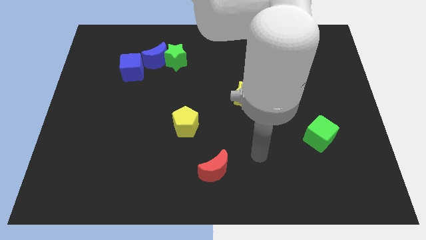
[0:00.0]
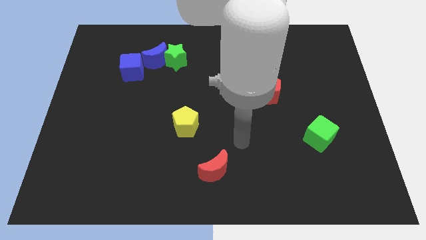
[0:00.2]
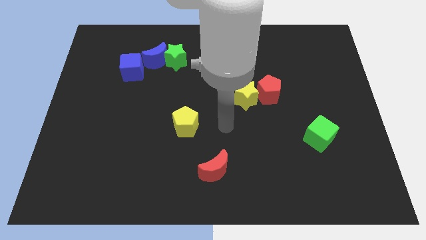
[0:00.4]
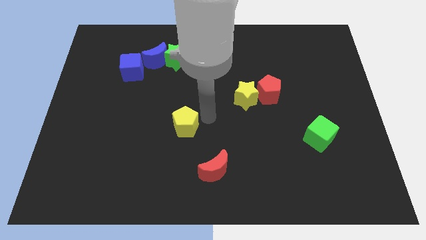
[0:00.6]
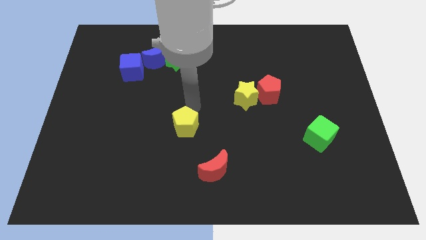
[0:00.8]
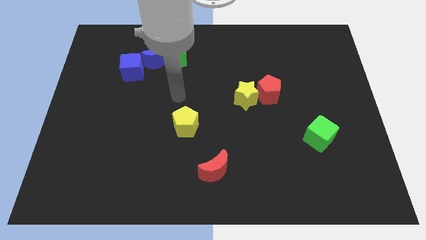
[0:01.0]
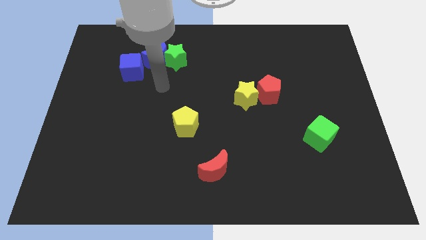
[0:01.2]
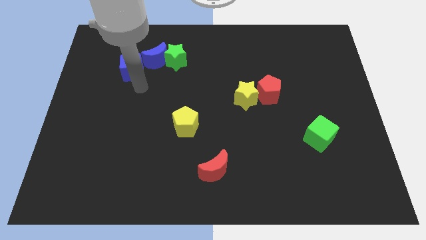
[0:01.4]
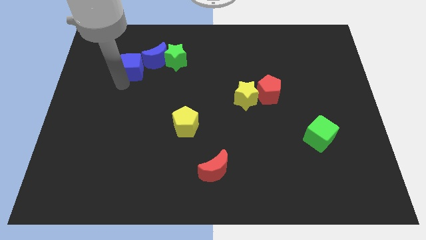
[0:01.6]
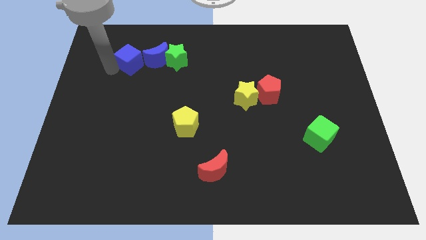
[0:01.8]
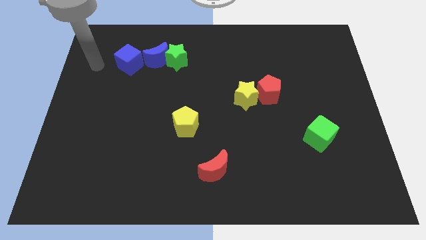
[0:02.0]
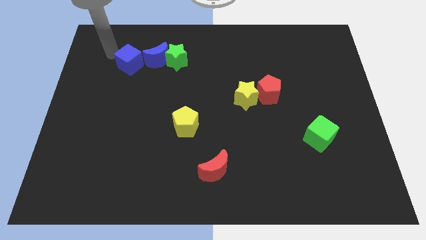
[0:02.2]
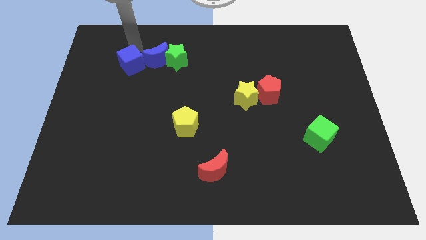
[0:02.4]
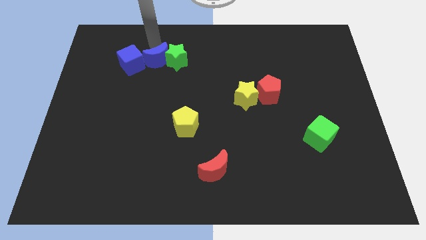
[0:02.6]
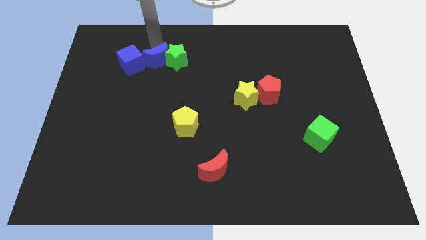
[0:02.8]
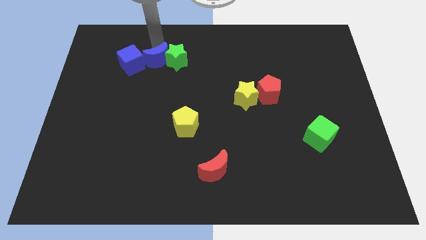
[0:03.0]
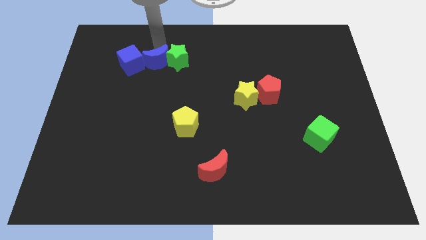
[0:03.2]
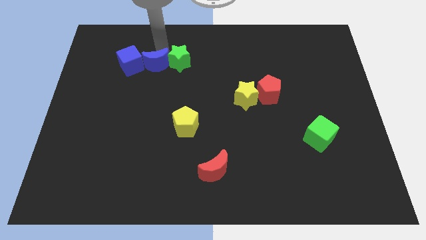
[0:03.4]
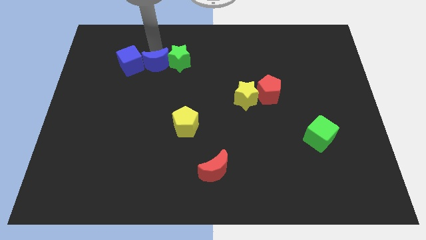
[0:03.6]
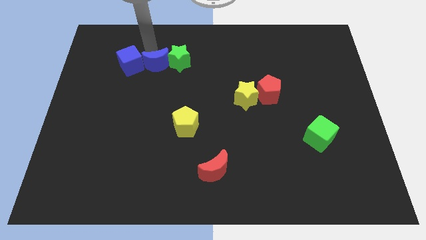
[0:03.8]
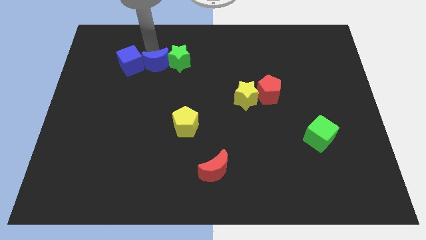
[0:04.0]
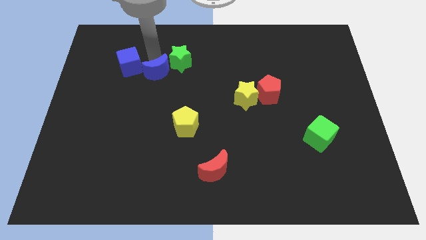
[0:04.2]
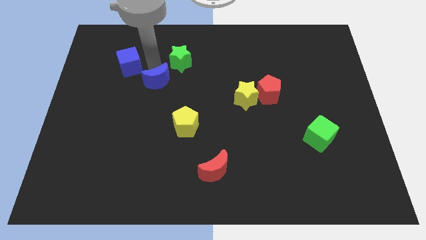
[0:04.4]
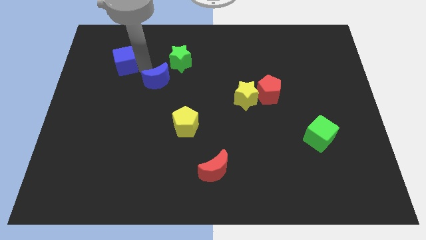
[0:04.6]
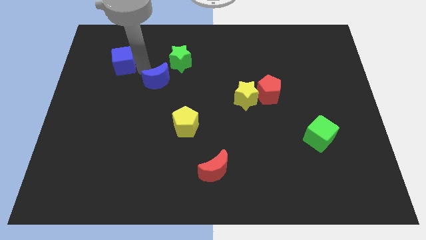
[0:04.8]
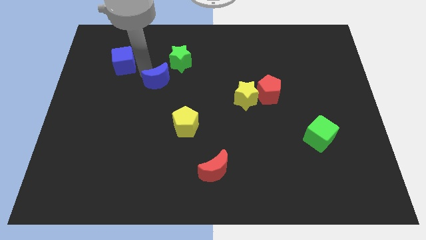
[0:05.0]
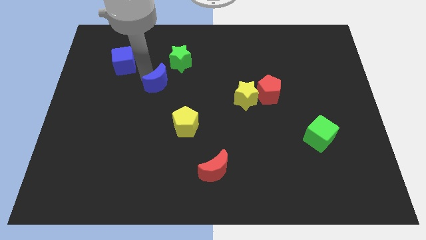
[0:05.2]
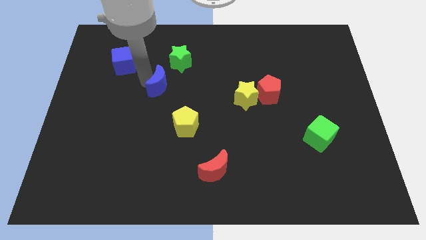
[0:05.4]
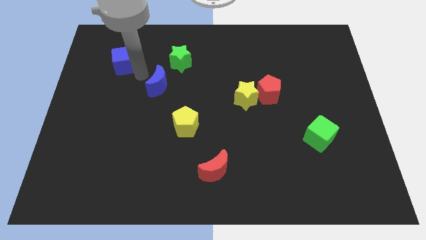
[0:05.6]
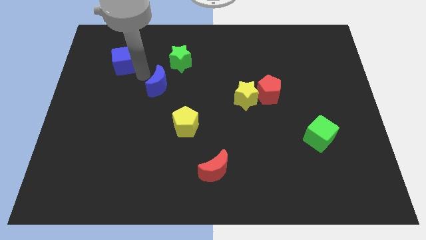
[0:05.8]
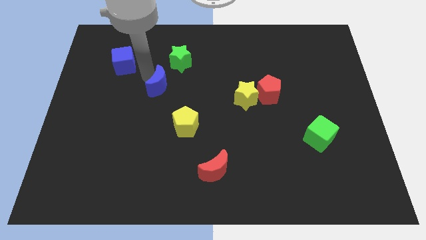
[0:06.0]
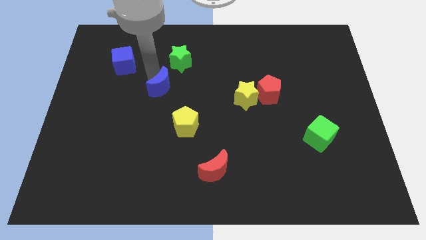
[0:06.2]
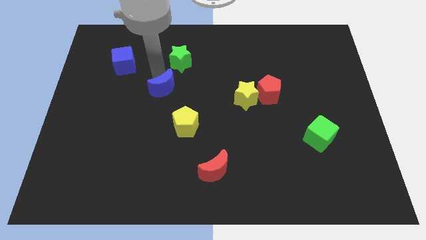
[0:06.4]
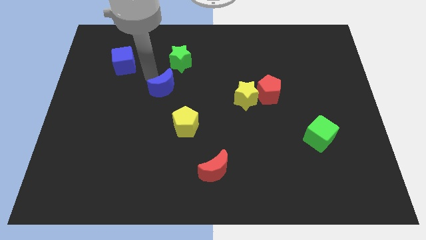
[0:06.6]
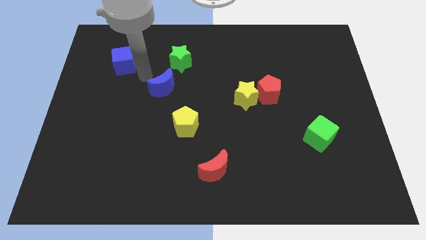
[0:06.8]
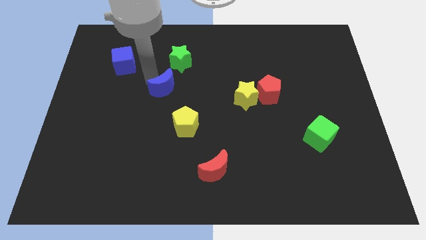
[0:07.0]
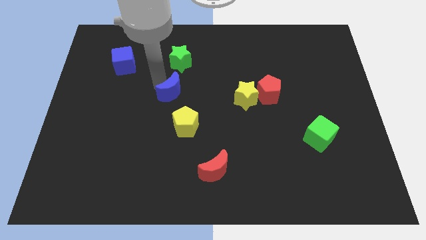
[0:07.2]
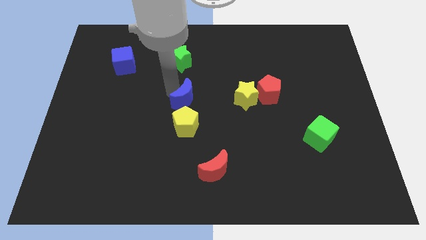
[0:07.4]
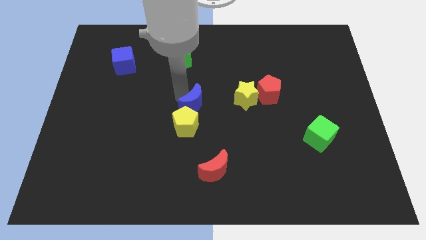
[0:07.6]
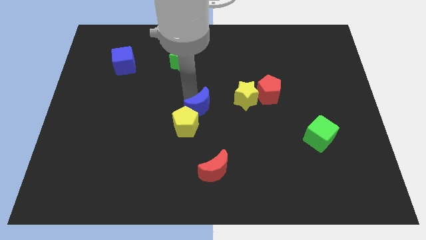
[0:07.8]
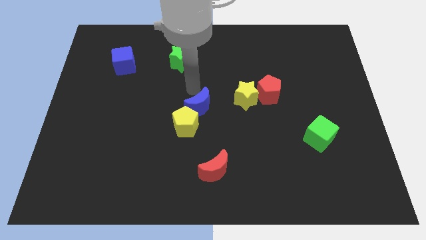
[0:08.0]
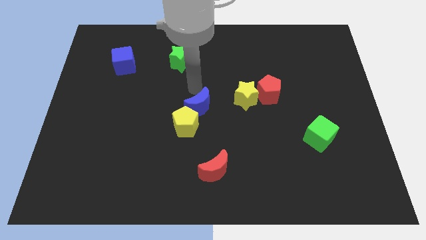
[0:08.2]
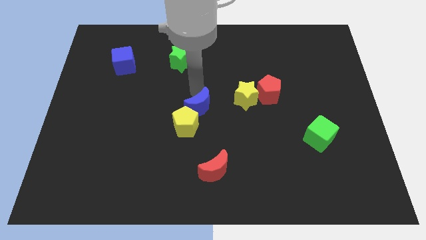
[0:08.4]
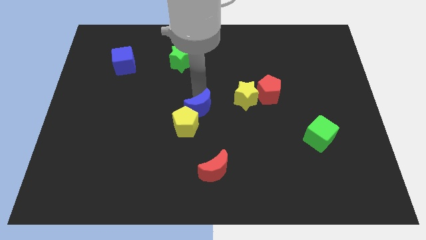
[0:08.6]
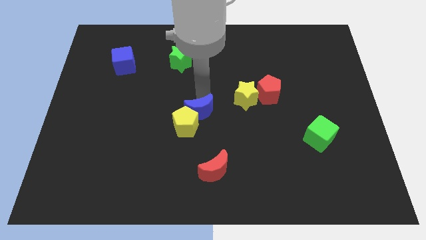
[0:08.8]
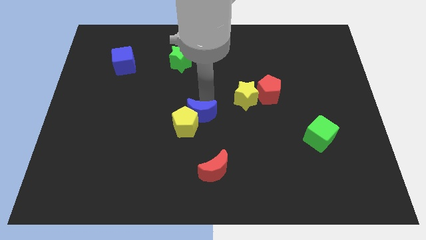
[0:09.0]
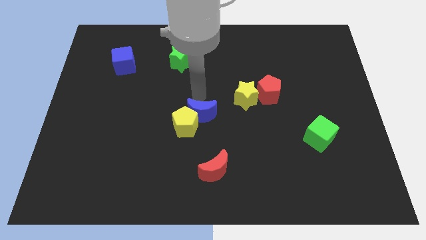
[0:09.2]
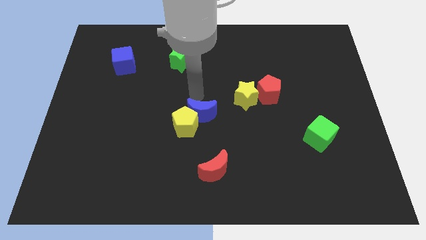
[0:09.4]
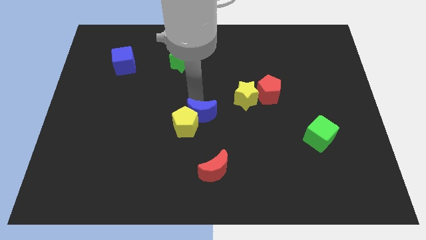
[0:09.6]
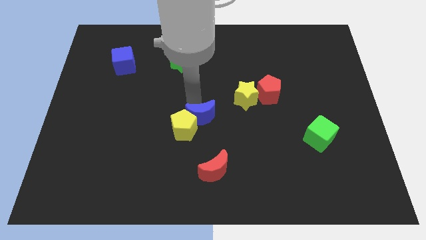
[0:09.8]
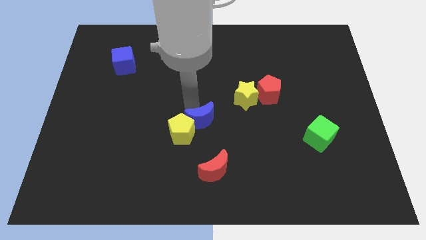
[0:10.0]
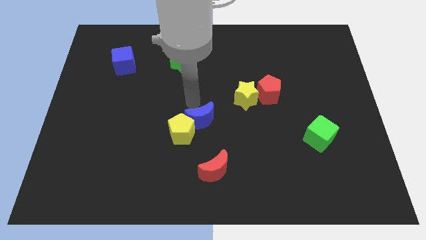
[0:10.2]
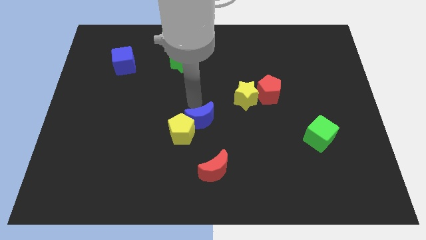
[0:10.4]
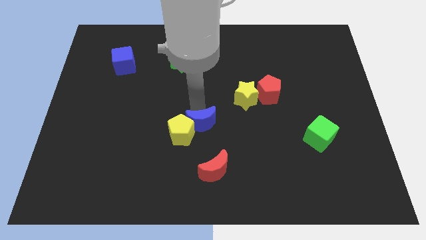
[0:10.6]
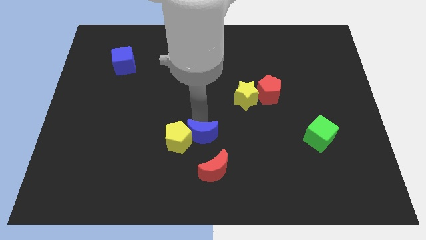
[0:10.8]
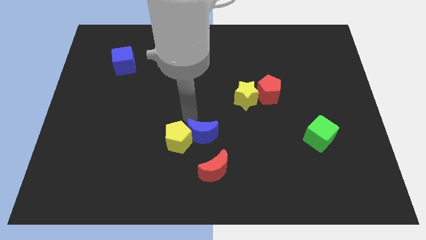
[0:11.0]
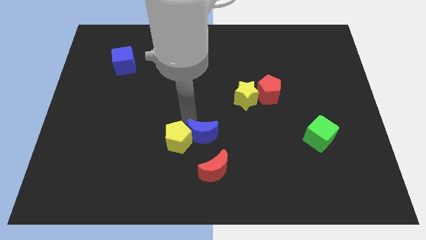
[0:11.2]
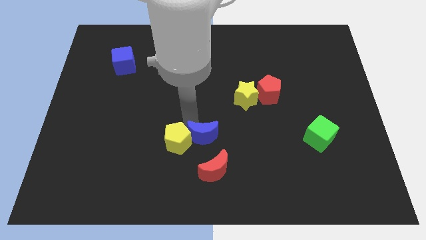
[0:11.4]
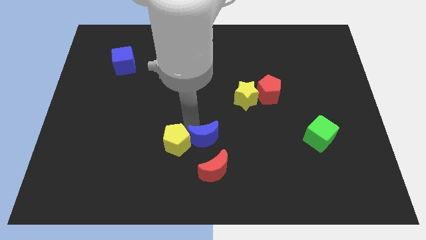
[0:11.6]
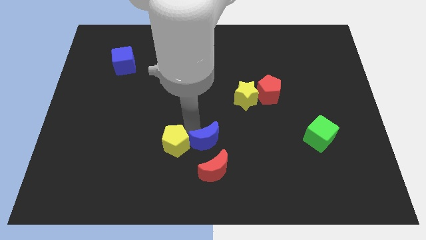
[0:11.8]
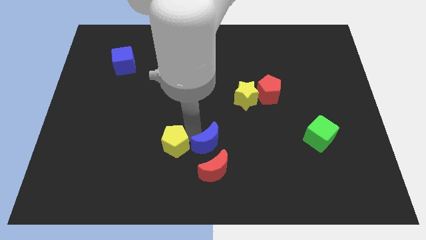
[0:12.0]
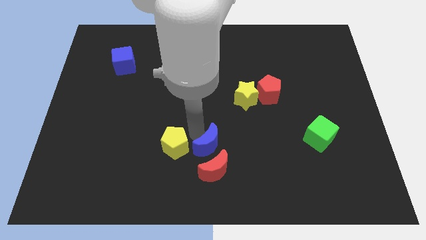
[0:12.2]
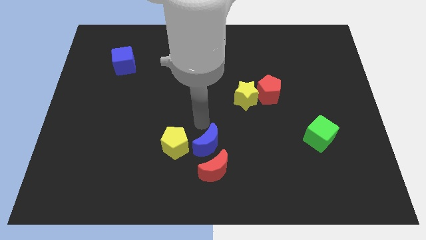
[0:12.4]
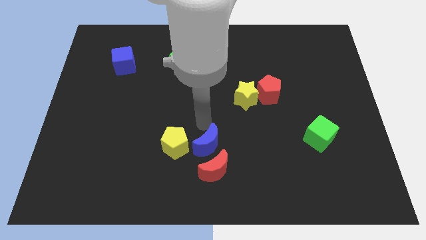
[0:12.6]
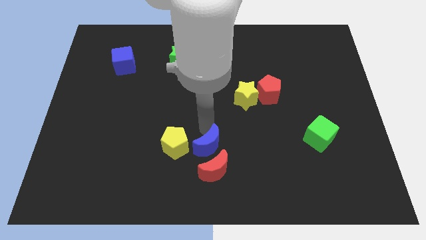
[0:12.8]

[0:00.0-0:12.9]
put the blue moon towards the red moon

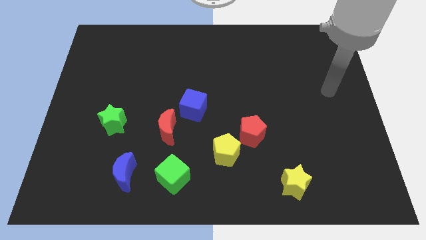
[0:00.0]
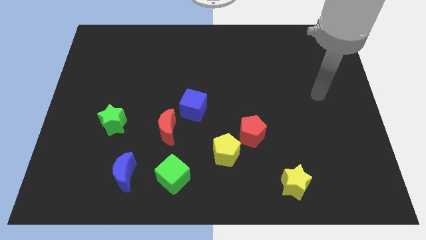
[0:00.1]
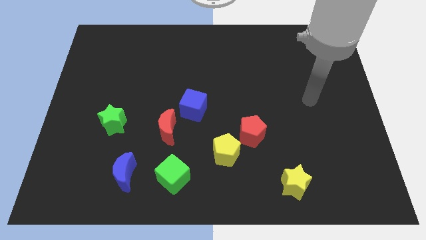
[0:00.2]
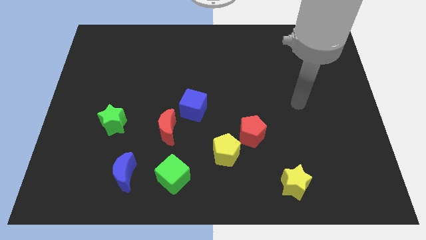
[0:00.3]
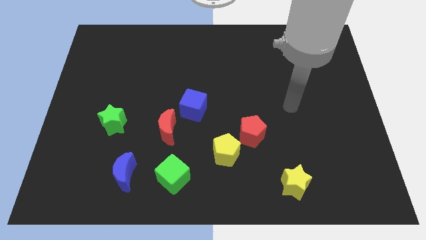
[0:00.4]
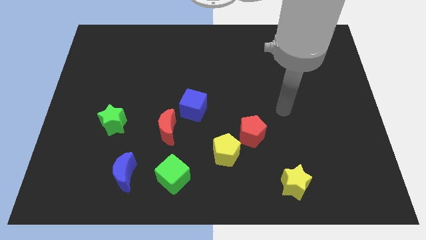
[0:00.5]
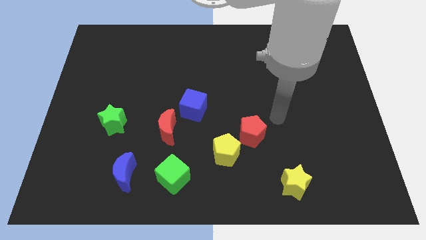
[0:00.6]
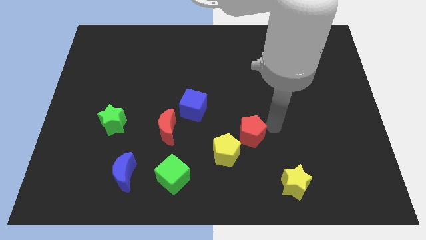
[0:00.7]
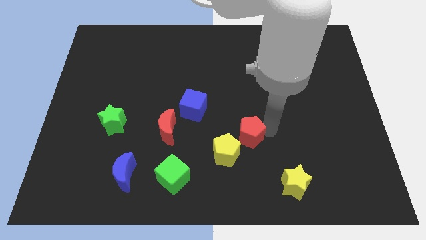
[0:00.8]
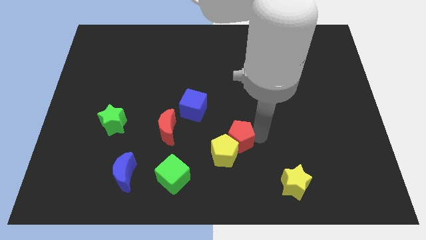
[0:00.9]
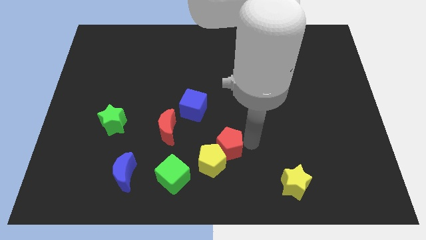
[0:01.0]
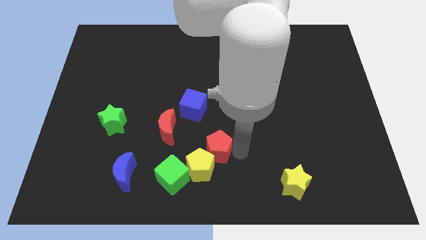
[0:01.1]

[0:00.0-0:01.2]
move the yellow pentagon towards the green cube
